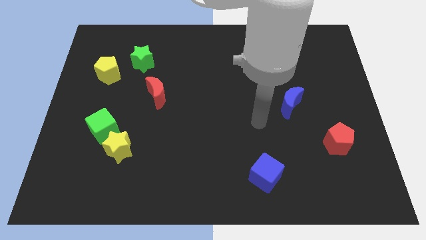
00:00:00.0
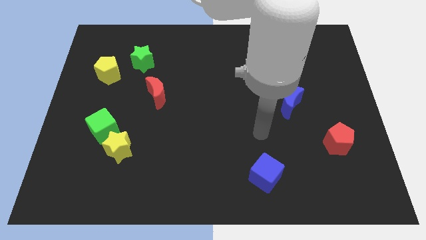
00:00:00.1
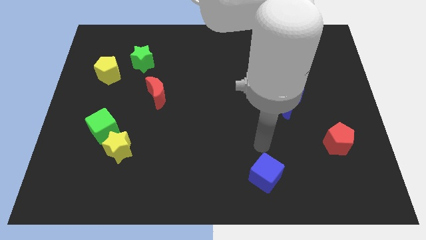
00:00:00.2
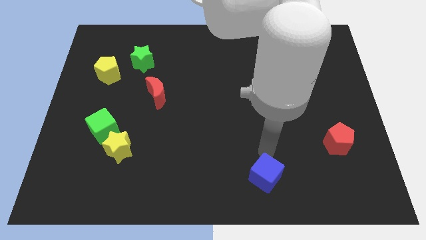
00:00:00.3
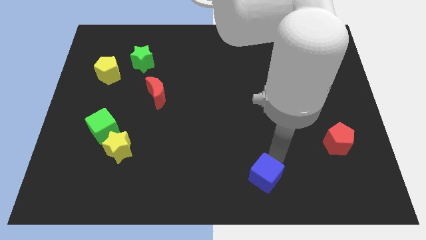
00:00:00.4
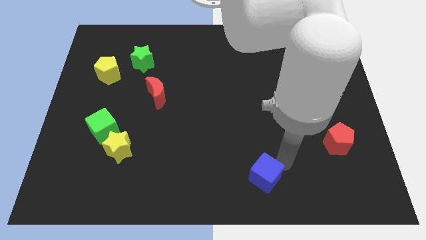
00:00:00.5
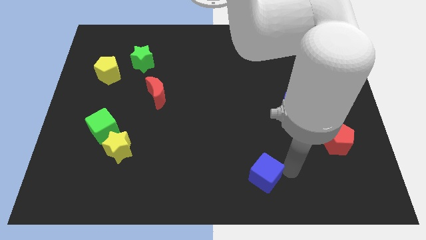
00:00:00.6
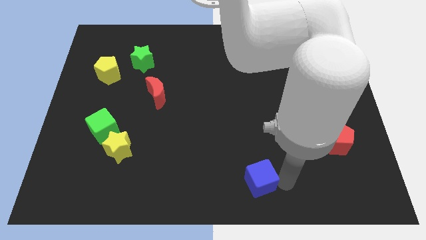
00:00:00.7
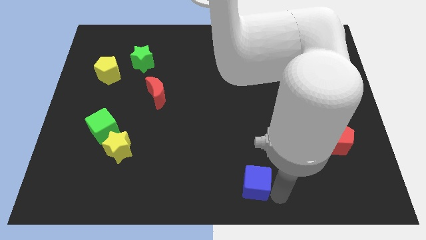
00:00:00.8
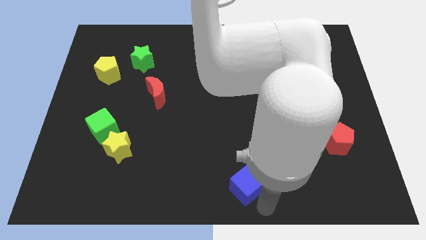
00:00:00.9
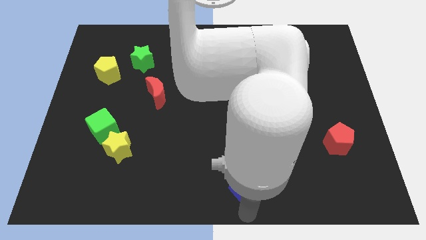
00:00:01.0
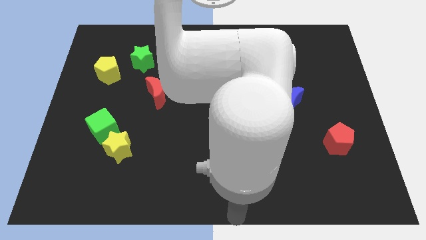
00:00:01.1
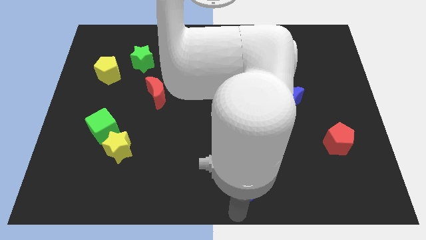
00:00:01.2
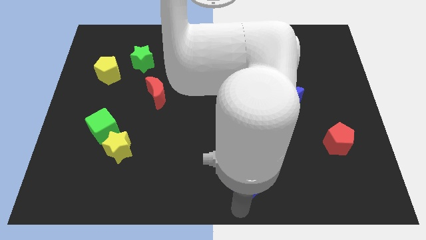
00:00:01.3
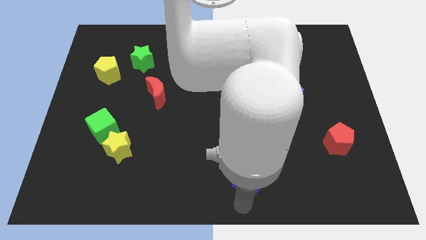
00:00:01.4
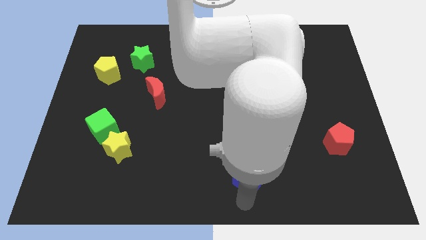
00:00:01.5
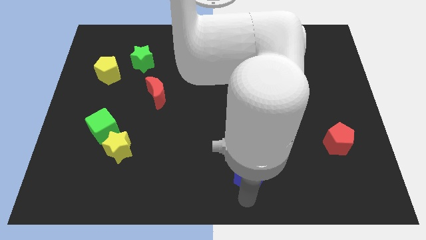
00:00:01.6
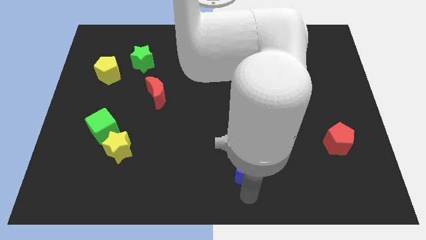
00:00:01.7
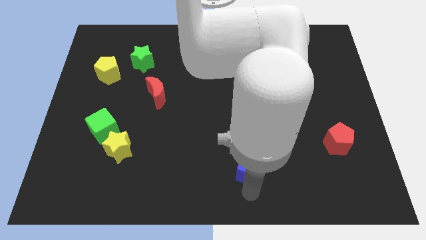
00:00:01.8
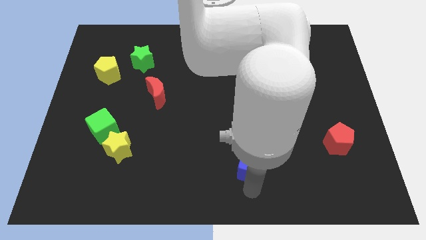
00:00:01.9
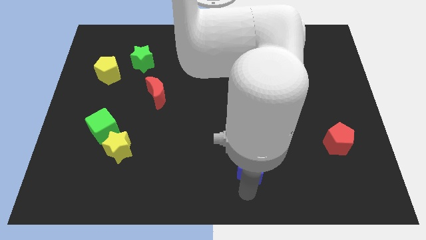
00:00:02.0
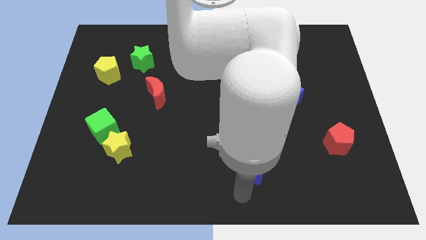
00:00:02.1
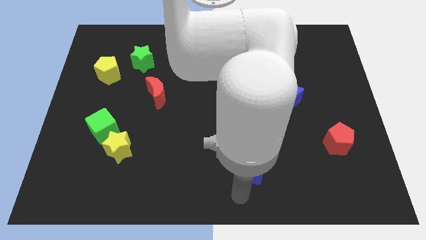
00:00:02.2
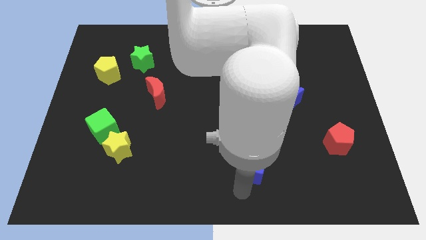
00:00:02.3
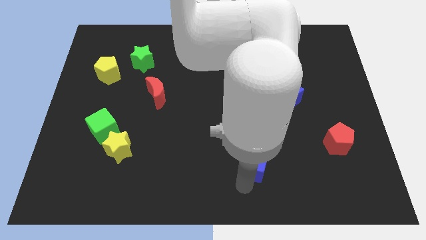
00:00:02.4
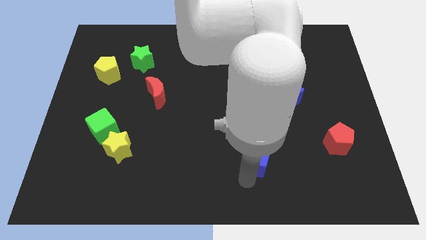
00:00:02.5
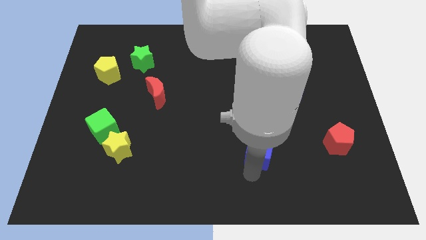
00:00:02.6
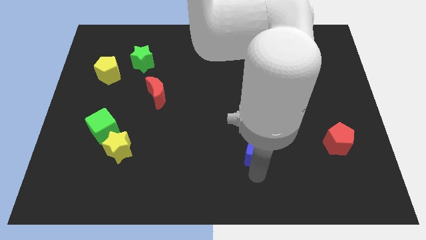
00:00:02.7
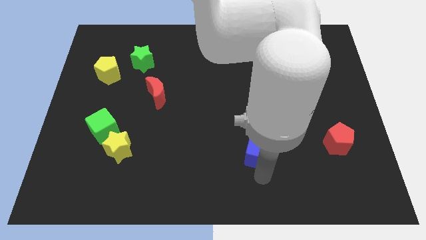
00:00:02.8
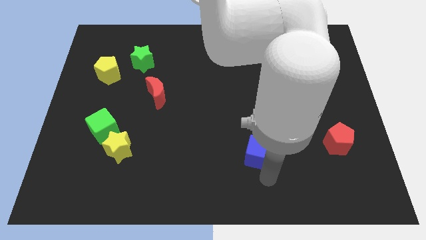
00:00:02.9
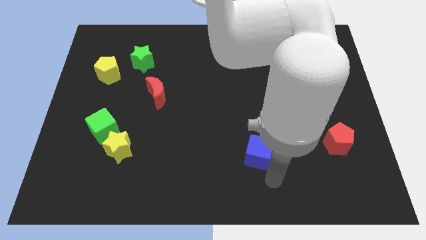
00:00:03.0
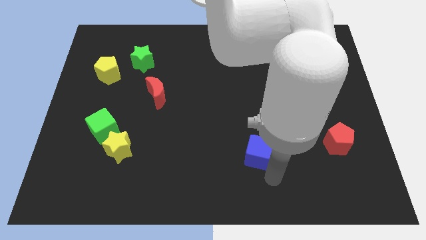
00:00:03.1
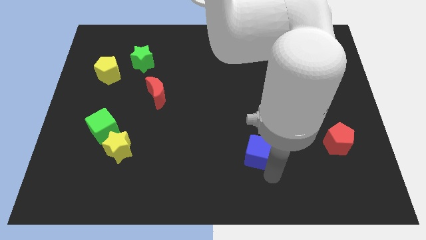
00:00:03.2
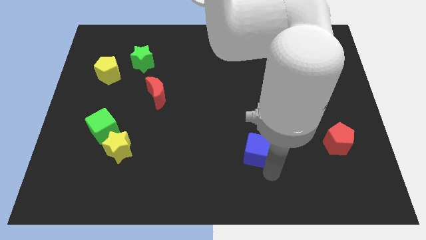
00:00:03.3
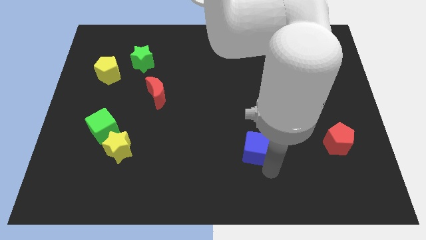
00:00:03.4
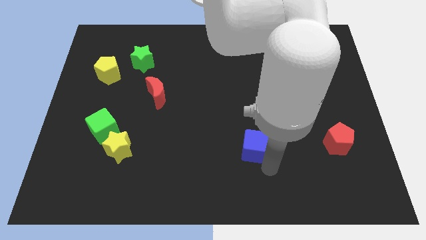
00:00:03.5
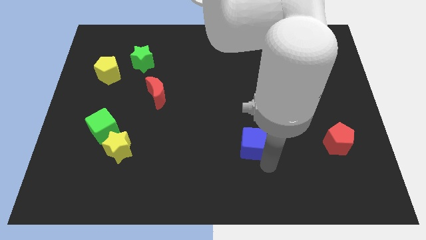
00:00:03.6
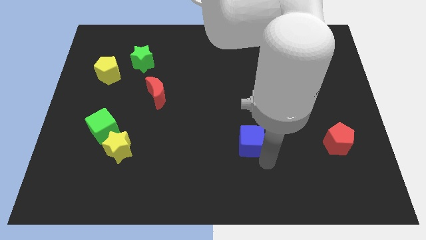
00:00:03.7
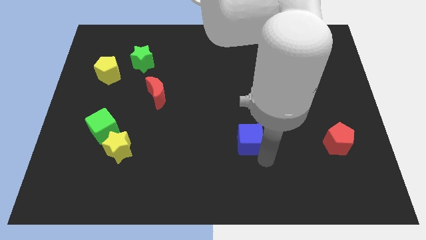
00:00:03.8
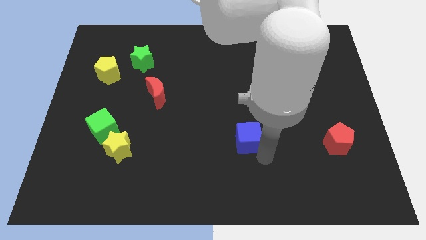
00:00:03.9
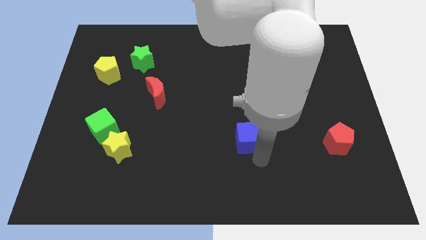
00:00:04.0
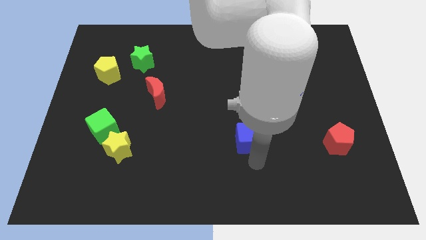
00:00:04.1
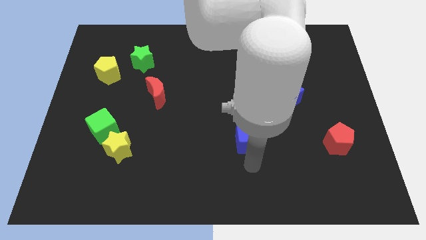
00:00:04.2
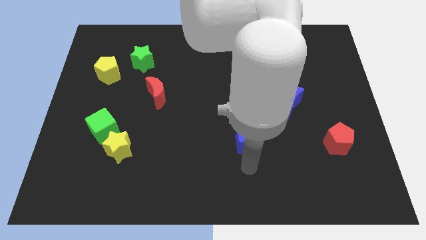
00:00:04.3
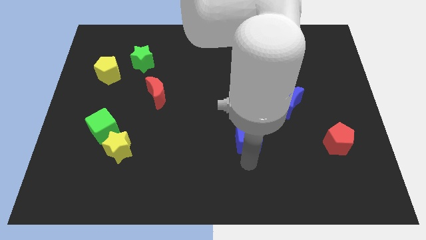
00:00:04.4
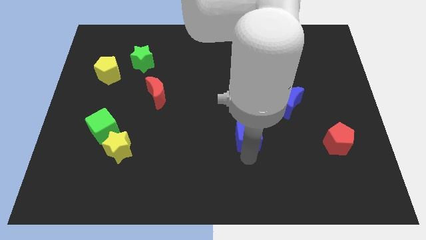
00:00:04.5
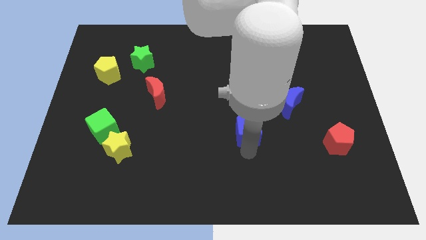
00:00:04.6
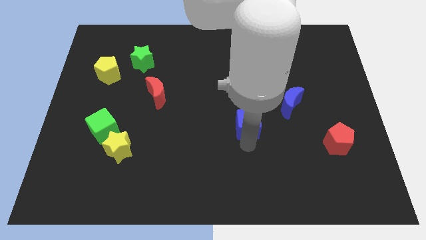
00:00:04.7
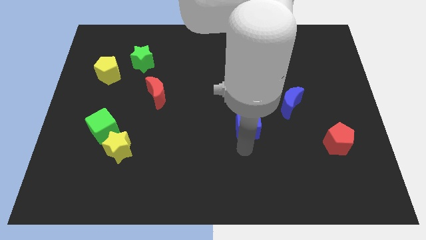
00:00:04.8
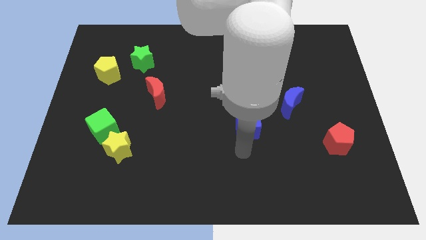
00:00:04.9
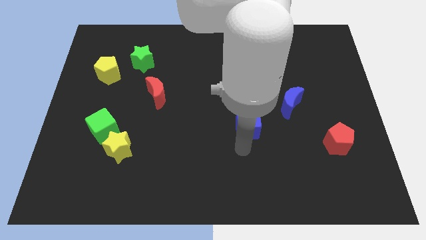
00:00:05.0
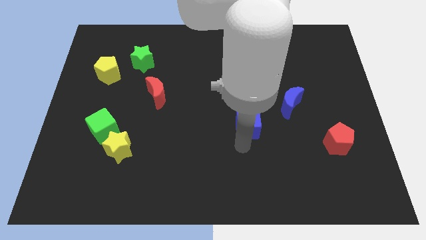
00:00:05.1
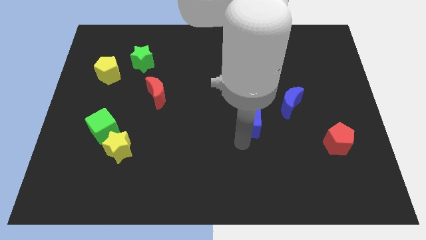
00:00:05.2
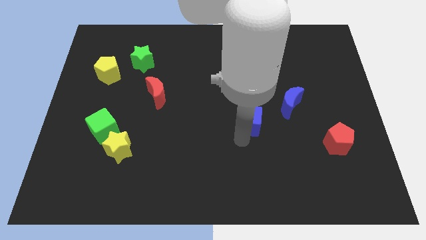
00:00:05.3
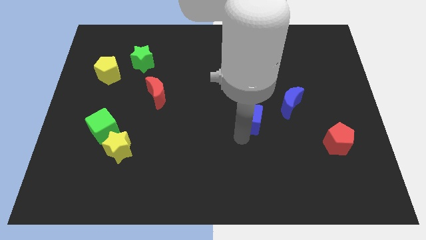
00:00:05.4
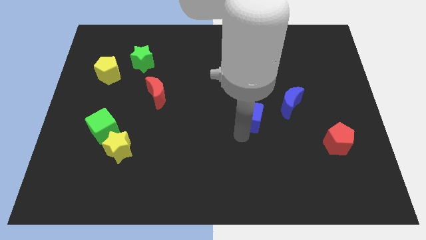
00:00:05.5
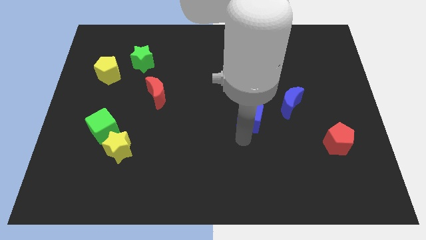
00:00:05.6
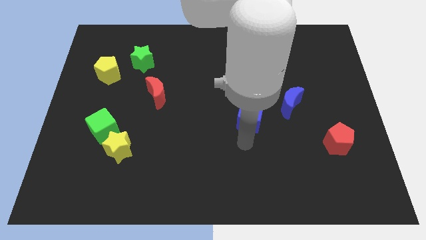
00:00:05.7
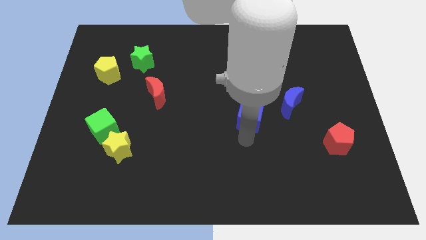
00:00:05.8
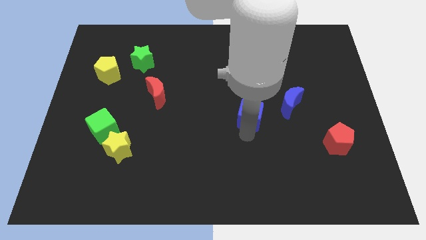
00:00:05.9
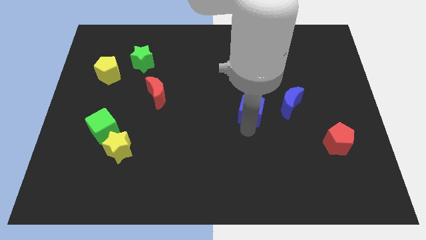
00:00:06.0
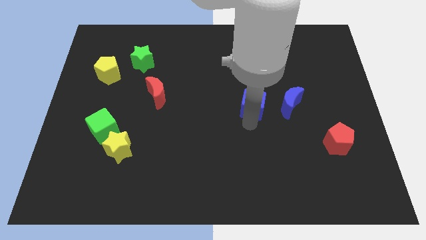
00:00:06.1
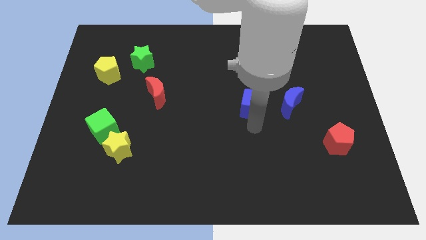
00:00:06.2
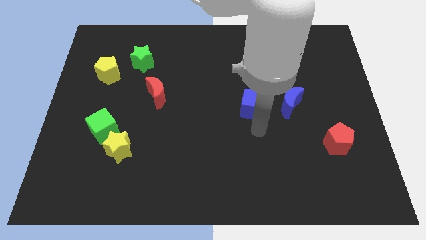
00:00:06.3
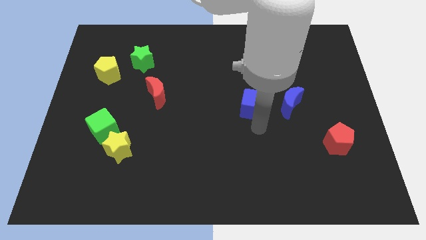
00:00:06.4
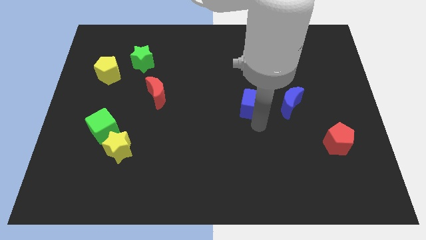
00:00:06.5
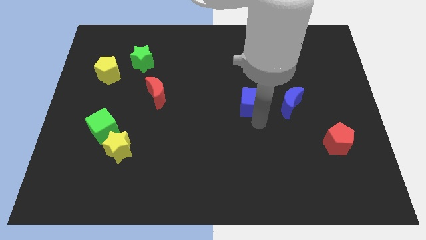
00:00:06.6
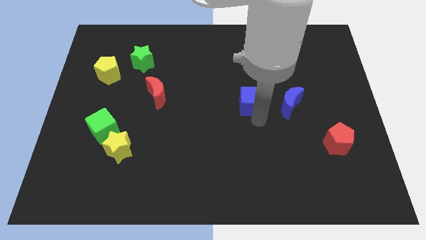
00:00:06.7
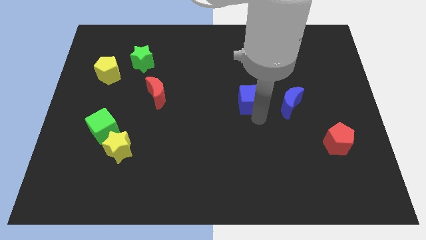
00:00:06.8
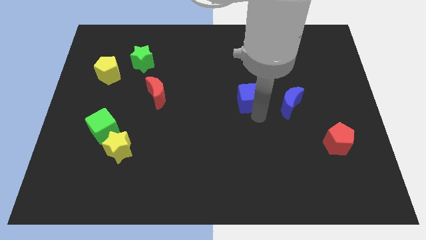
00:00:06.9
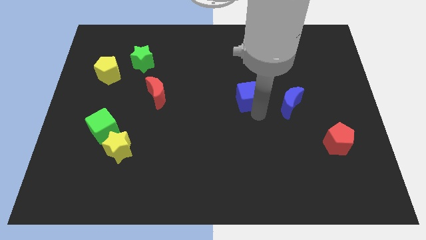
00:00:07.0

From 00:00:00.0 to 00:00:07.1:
push the blue cube up

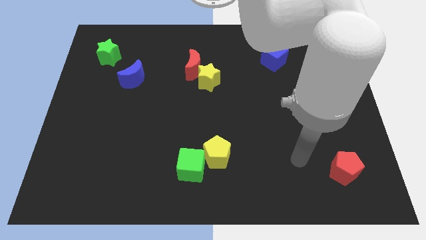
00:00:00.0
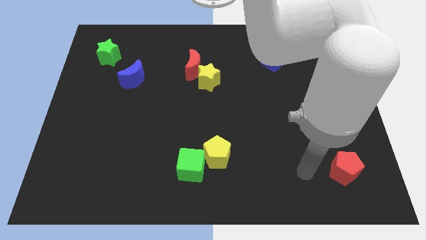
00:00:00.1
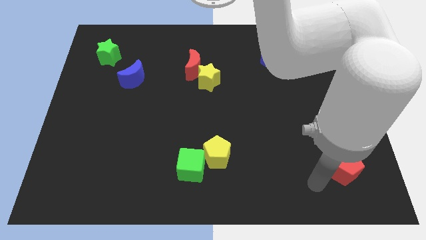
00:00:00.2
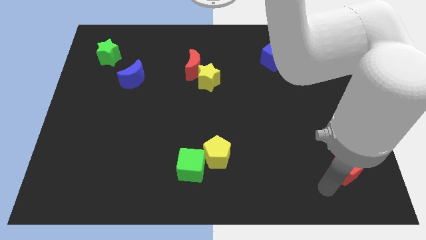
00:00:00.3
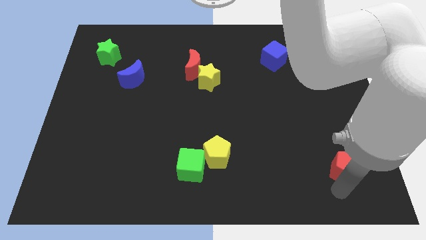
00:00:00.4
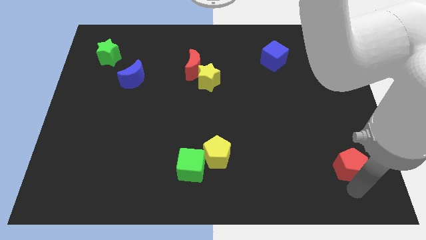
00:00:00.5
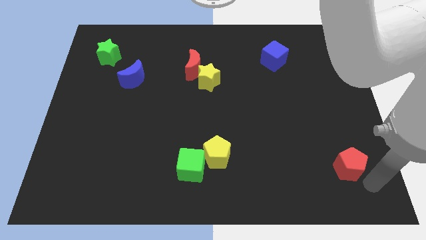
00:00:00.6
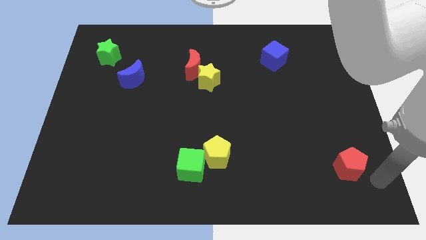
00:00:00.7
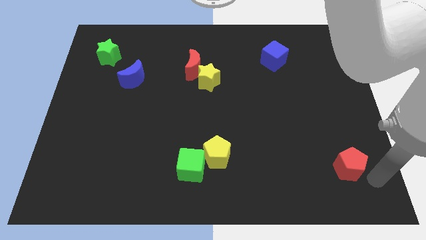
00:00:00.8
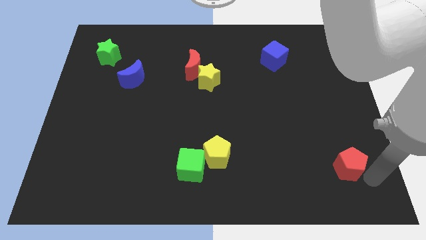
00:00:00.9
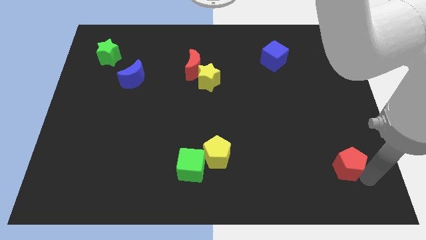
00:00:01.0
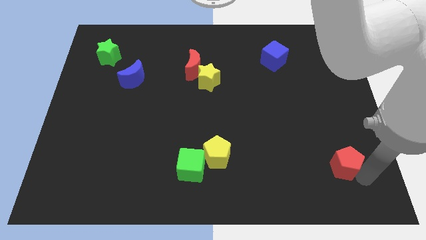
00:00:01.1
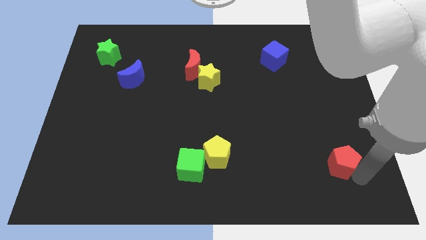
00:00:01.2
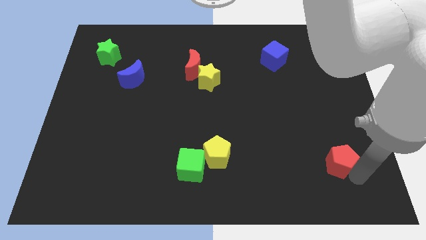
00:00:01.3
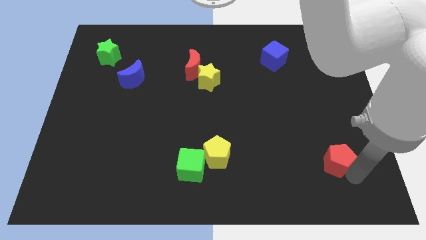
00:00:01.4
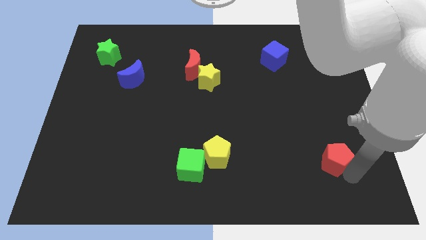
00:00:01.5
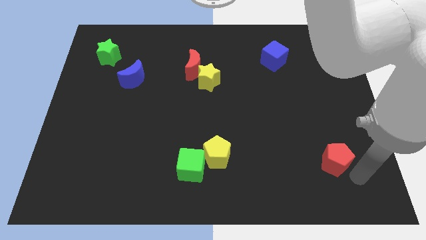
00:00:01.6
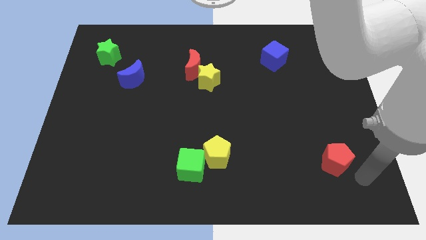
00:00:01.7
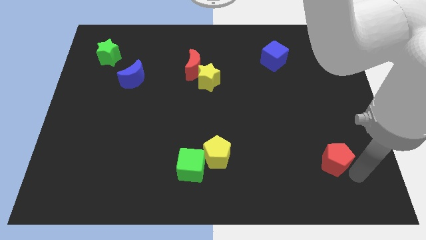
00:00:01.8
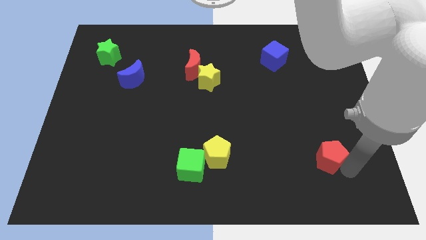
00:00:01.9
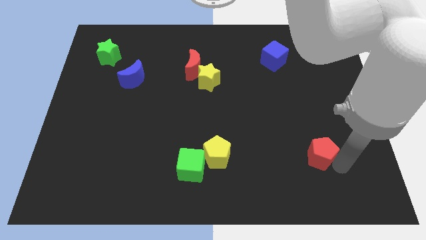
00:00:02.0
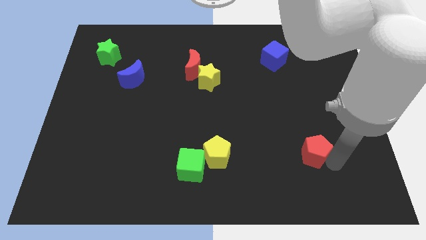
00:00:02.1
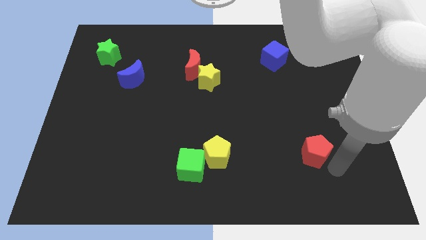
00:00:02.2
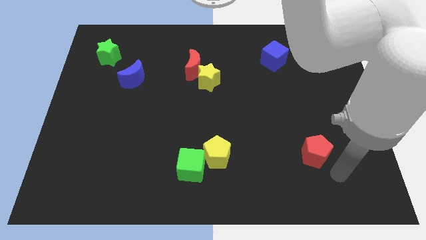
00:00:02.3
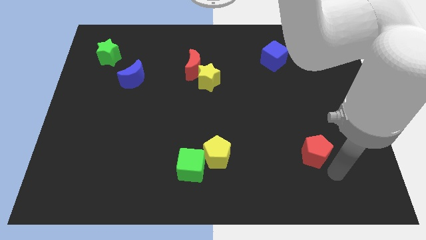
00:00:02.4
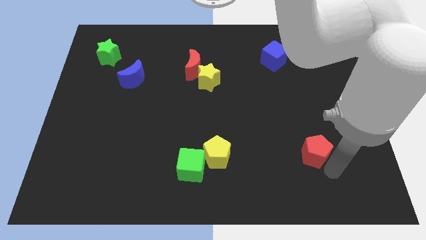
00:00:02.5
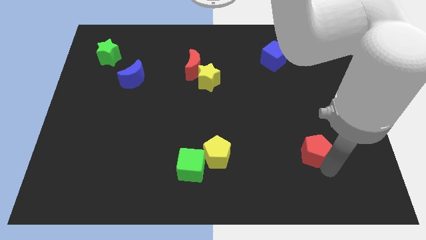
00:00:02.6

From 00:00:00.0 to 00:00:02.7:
push the red pentagon up and left a little bit
